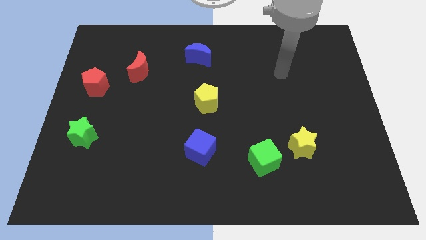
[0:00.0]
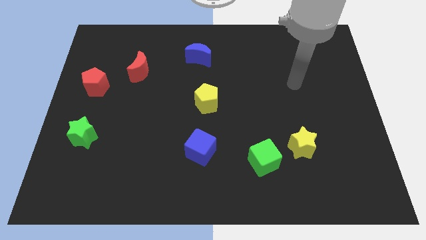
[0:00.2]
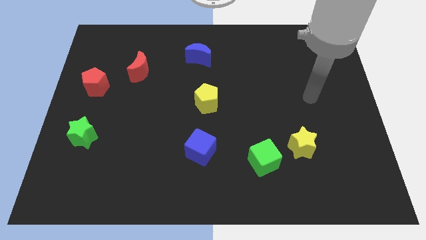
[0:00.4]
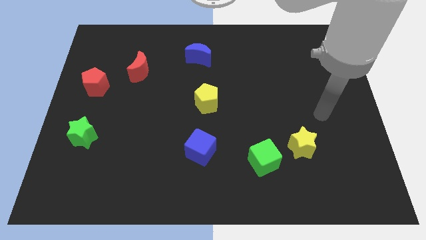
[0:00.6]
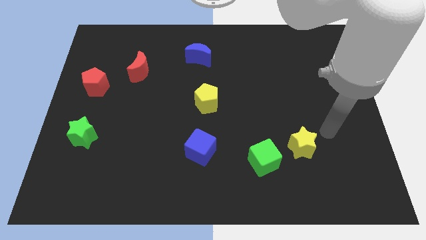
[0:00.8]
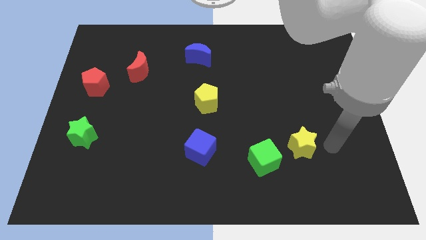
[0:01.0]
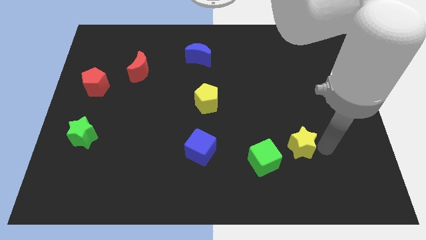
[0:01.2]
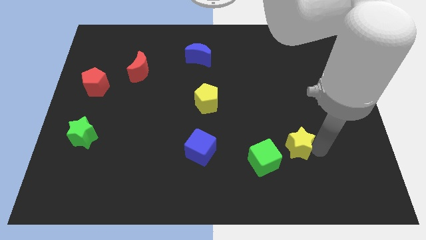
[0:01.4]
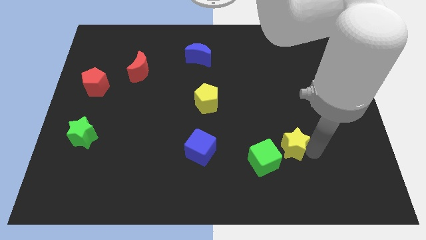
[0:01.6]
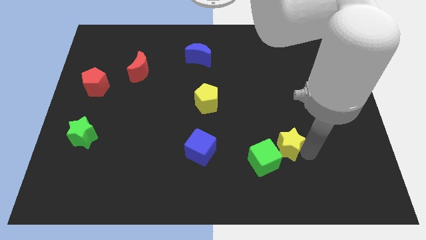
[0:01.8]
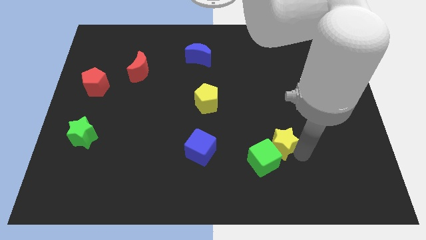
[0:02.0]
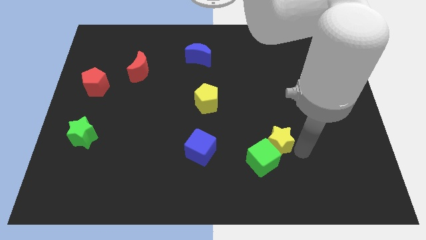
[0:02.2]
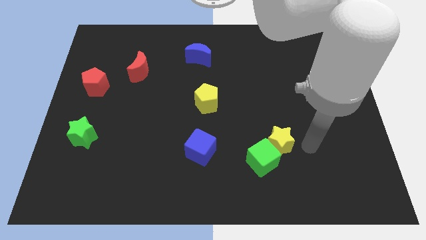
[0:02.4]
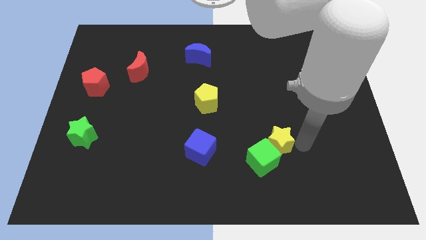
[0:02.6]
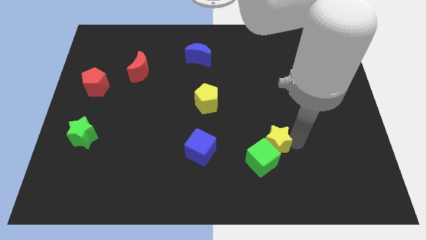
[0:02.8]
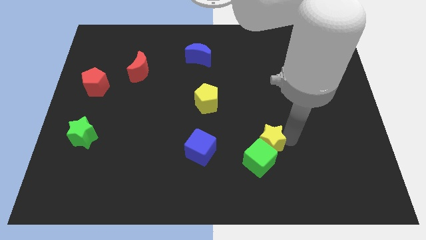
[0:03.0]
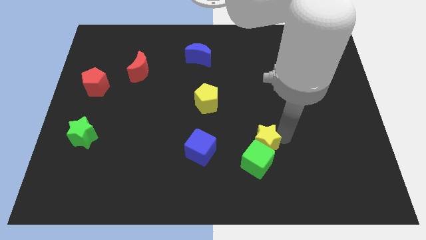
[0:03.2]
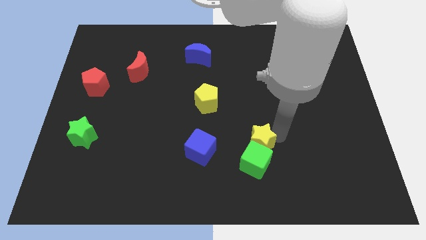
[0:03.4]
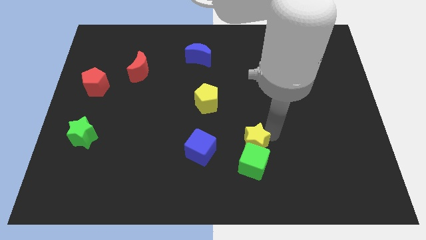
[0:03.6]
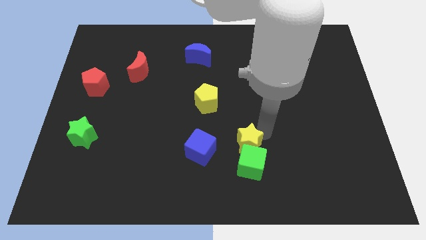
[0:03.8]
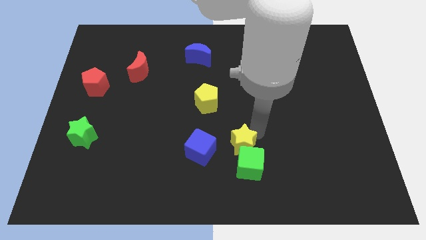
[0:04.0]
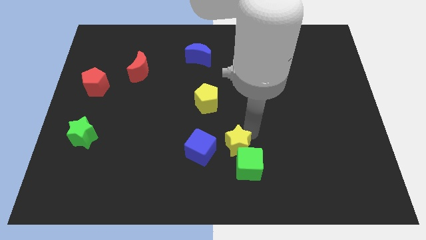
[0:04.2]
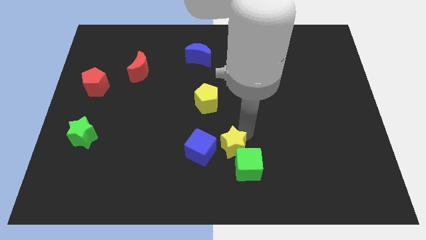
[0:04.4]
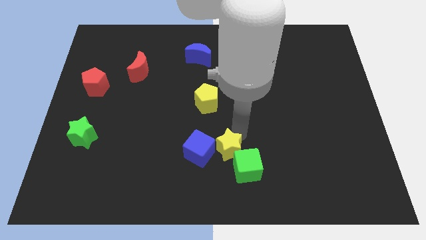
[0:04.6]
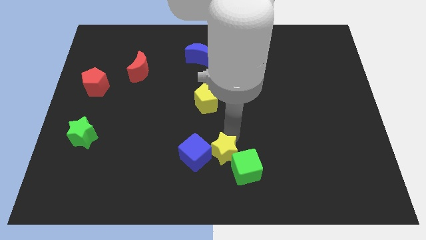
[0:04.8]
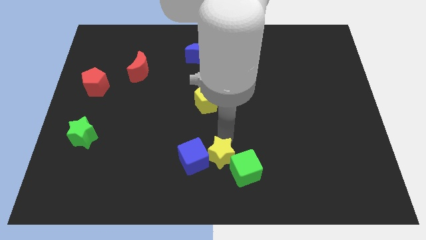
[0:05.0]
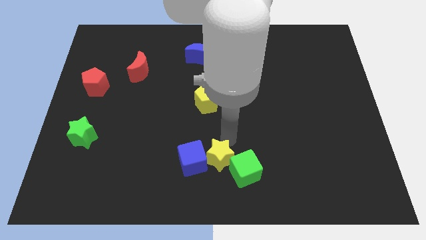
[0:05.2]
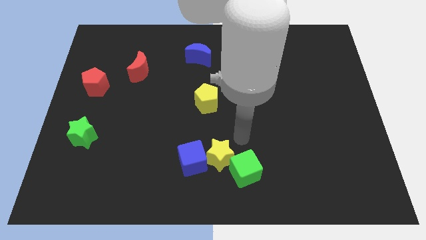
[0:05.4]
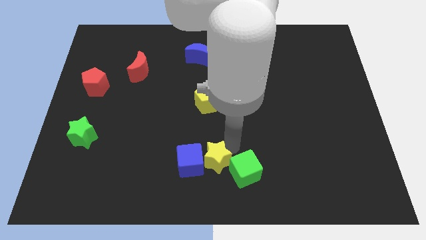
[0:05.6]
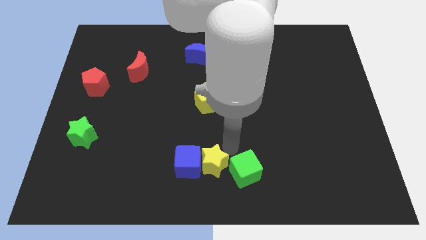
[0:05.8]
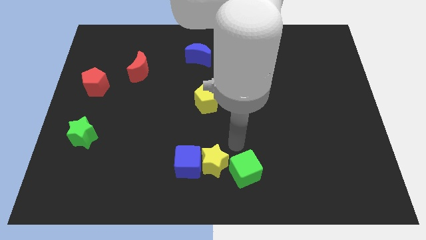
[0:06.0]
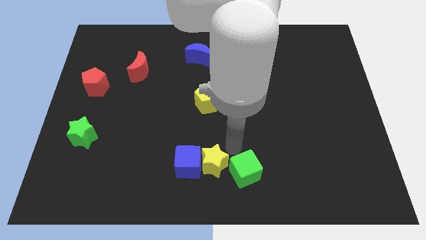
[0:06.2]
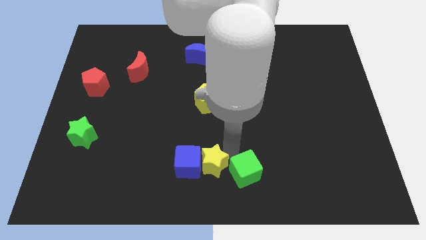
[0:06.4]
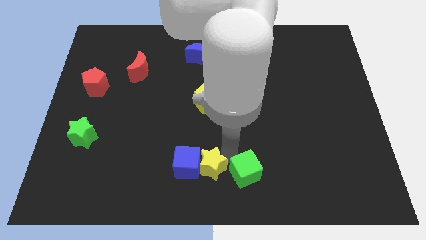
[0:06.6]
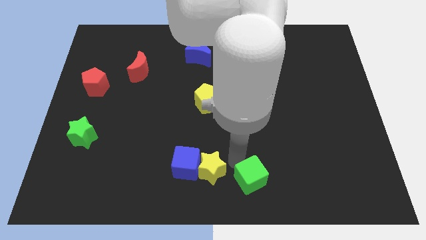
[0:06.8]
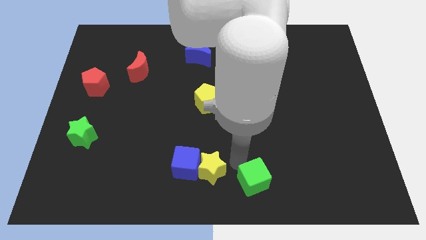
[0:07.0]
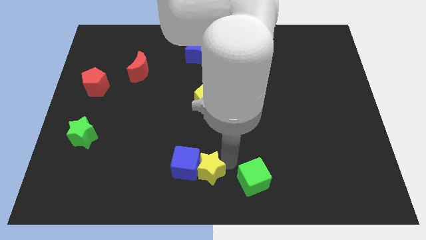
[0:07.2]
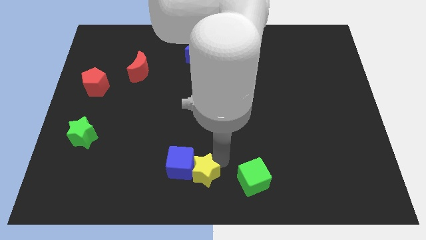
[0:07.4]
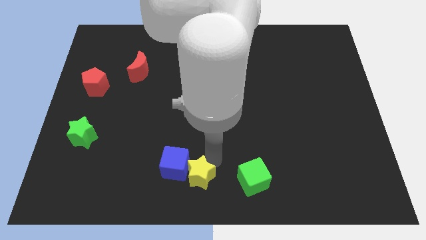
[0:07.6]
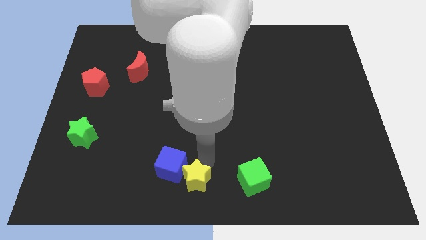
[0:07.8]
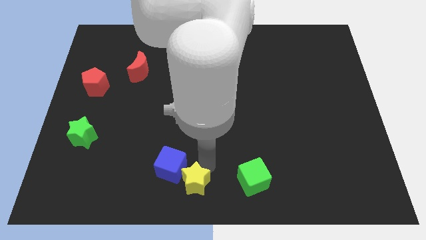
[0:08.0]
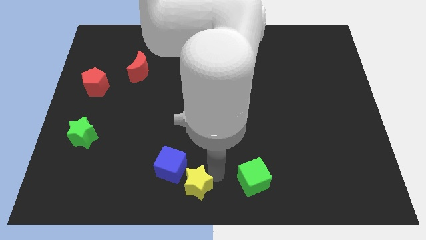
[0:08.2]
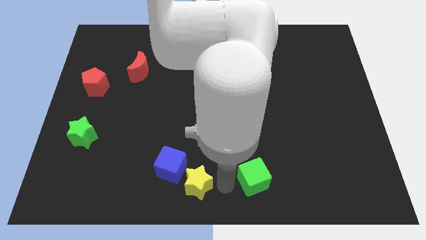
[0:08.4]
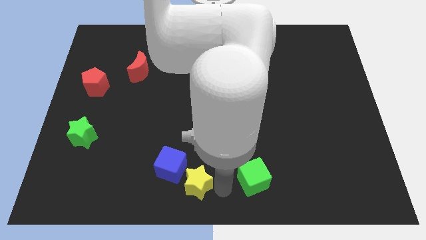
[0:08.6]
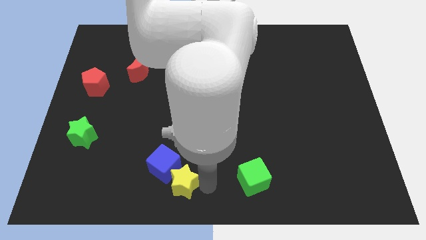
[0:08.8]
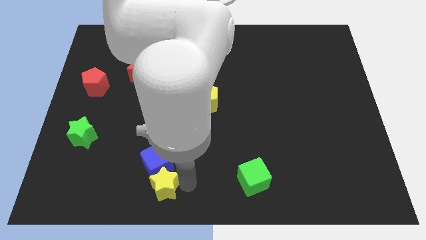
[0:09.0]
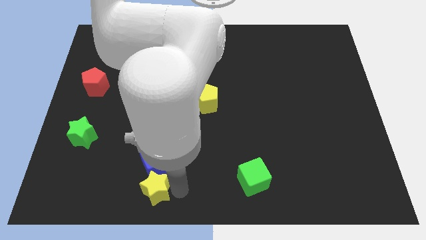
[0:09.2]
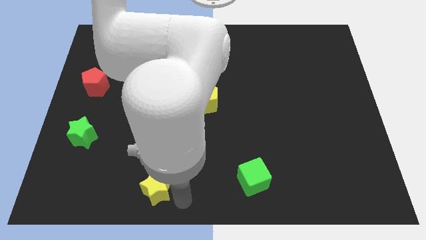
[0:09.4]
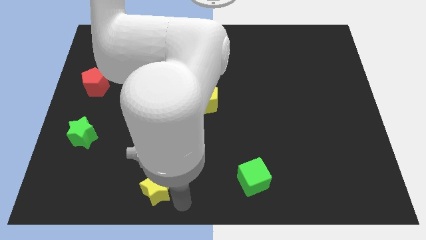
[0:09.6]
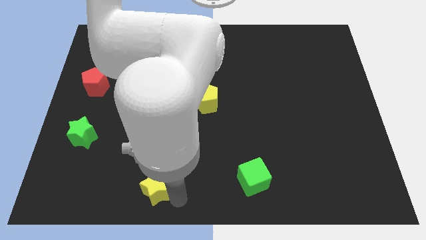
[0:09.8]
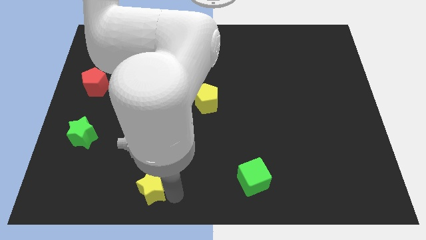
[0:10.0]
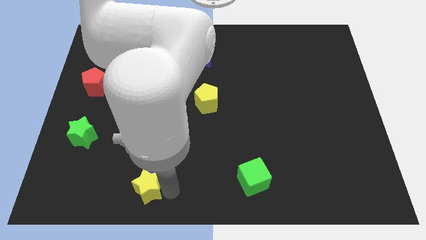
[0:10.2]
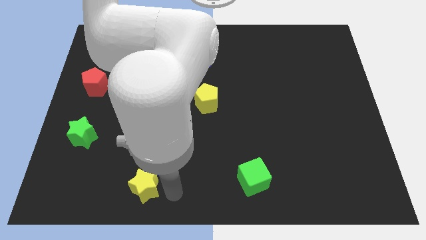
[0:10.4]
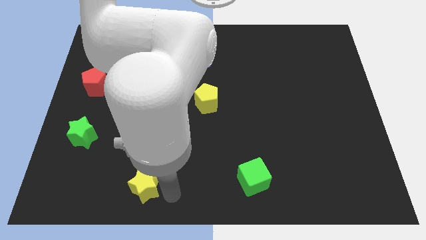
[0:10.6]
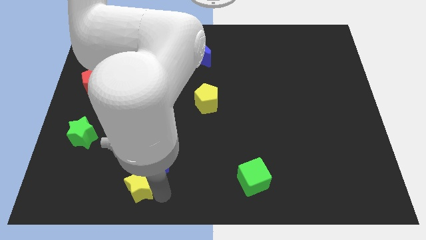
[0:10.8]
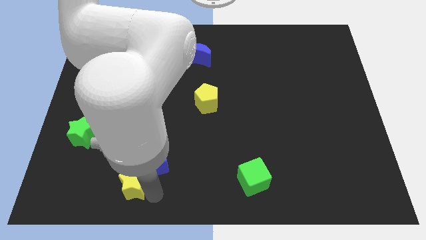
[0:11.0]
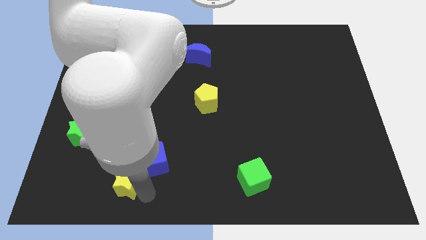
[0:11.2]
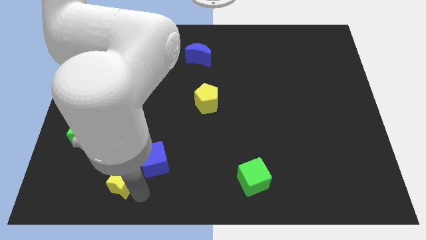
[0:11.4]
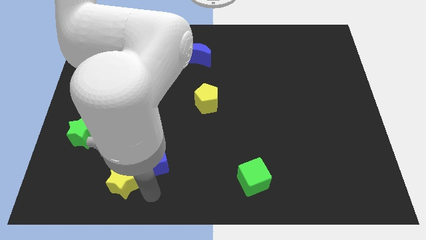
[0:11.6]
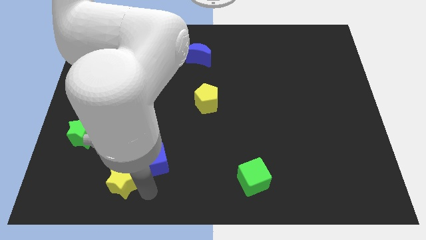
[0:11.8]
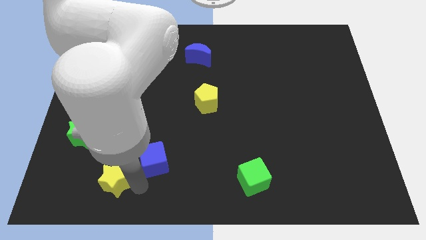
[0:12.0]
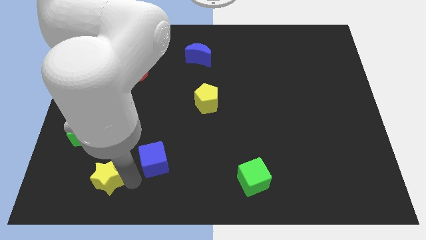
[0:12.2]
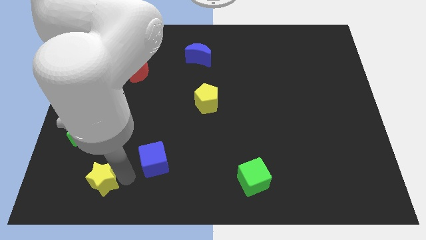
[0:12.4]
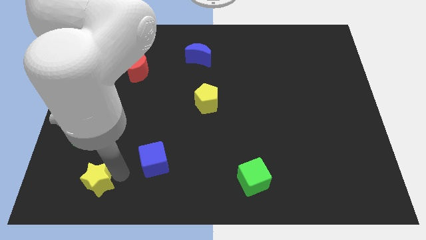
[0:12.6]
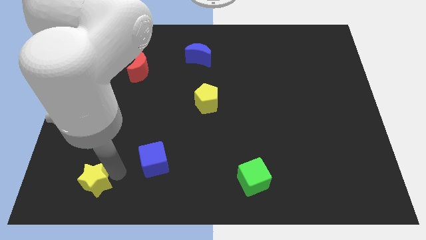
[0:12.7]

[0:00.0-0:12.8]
push the yellow star to the bottom side of the green star
